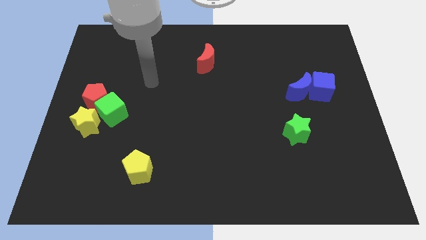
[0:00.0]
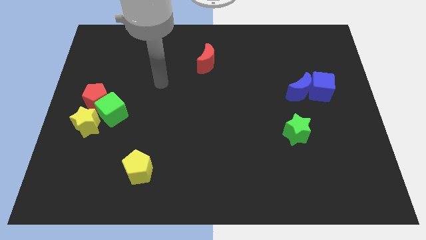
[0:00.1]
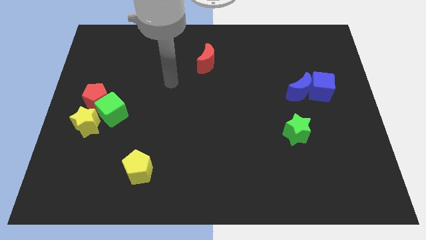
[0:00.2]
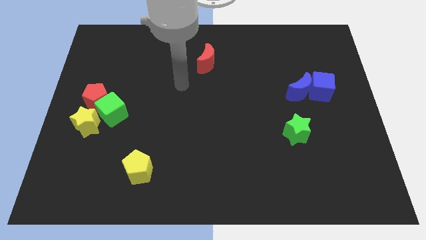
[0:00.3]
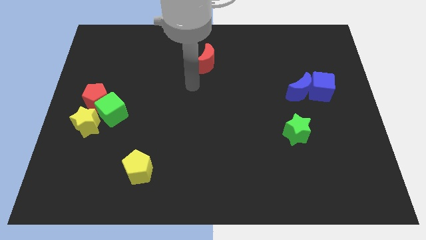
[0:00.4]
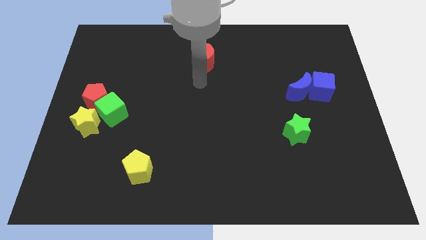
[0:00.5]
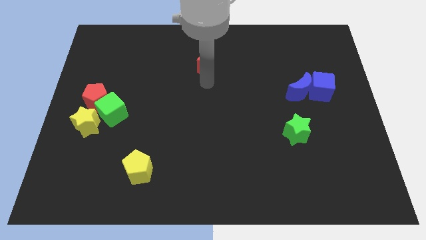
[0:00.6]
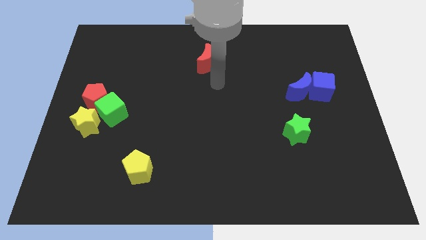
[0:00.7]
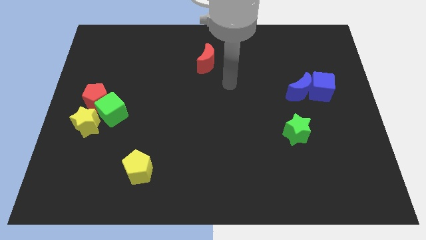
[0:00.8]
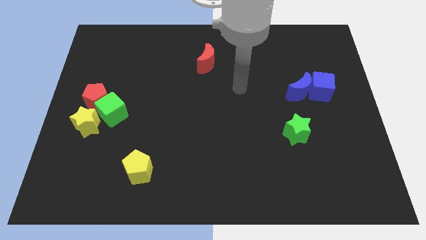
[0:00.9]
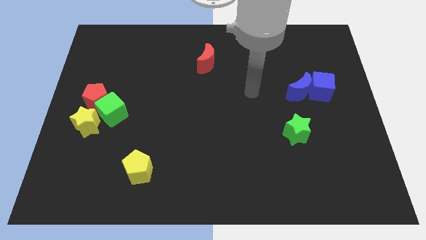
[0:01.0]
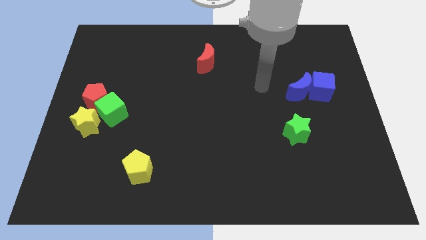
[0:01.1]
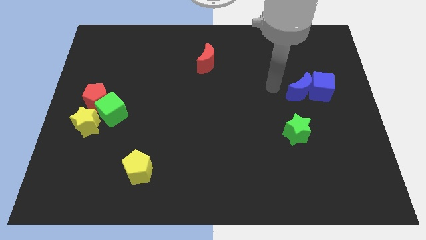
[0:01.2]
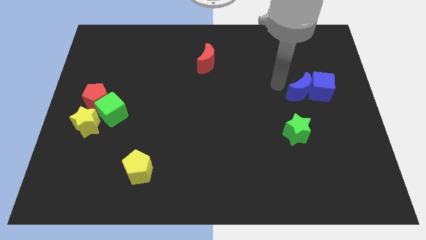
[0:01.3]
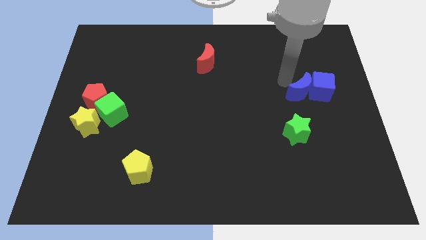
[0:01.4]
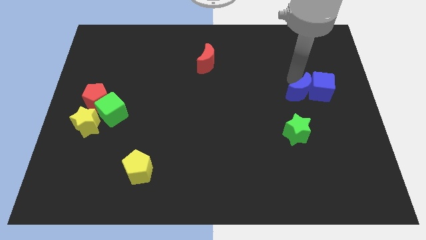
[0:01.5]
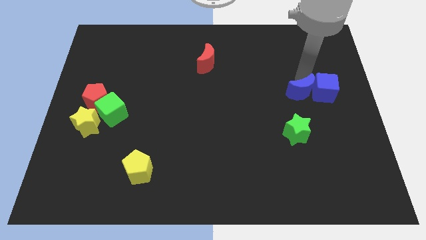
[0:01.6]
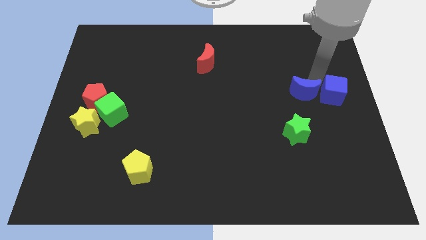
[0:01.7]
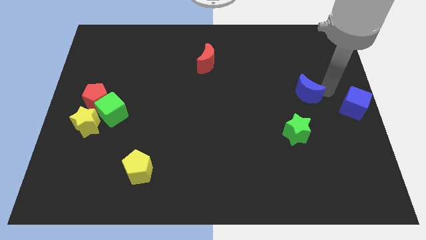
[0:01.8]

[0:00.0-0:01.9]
move the blue moon away from the blue cube

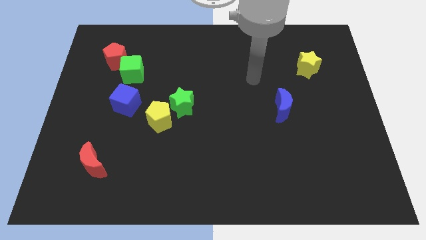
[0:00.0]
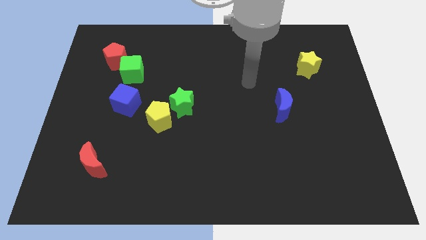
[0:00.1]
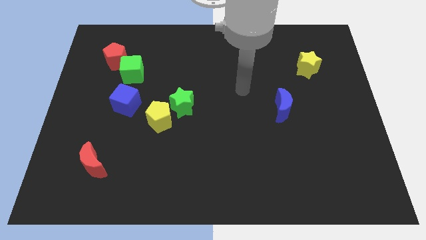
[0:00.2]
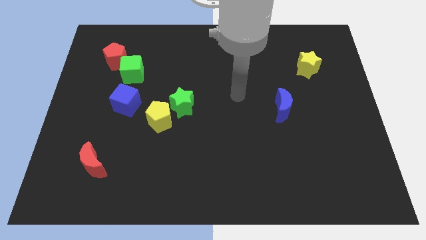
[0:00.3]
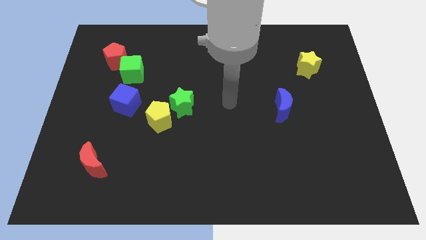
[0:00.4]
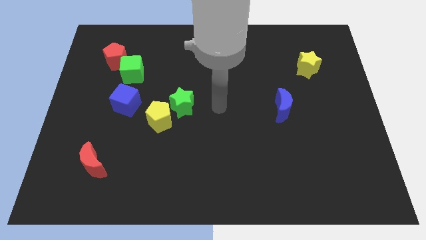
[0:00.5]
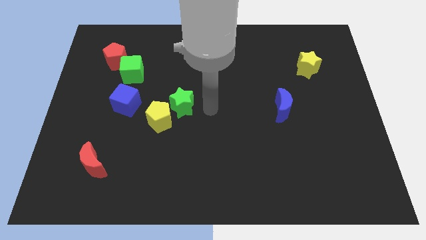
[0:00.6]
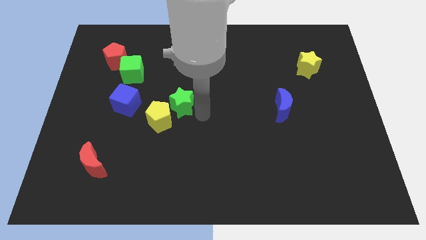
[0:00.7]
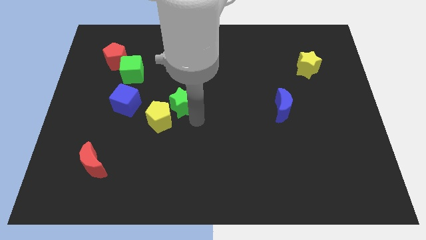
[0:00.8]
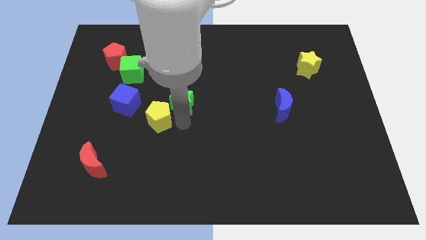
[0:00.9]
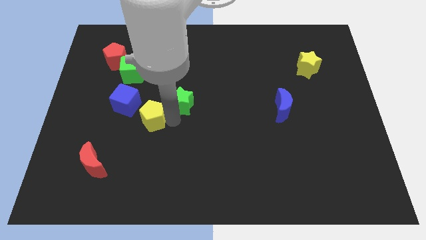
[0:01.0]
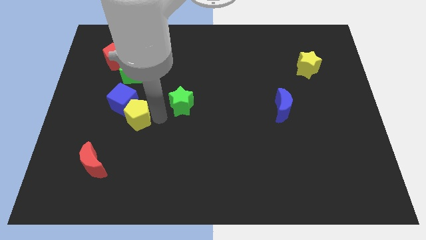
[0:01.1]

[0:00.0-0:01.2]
move the green star away from the yellow pentagon

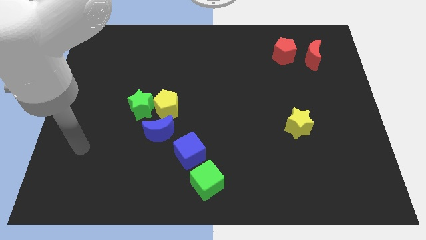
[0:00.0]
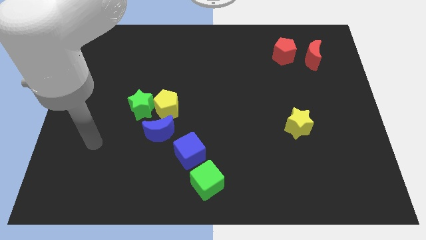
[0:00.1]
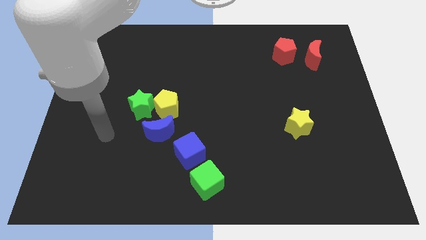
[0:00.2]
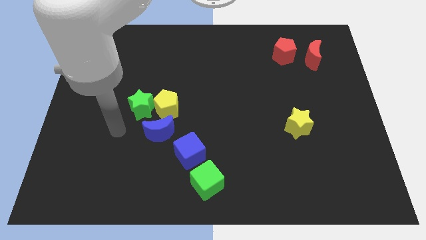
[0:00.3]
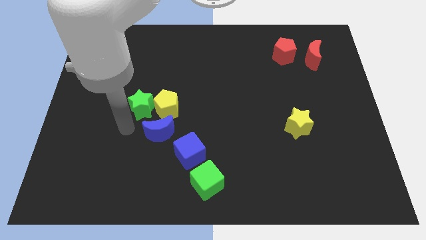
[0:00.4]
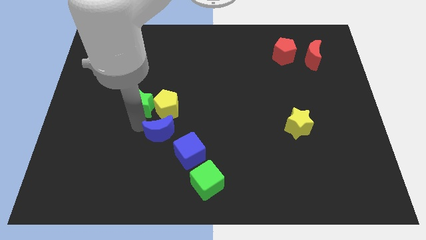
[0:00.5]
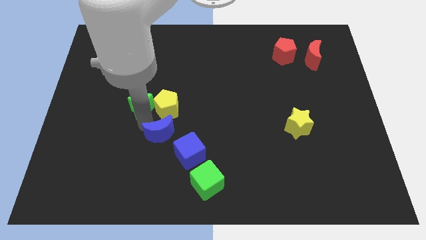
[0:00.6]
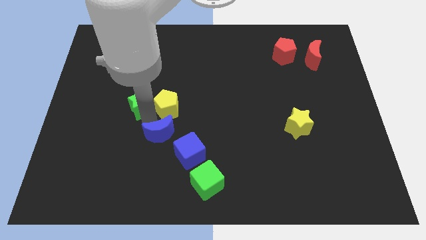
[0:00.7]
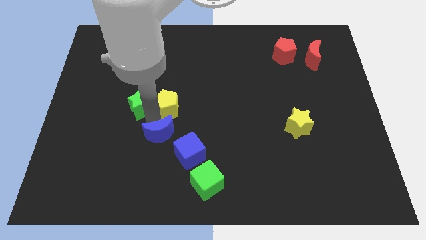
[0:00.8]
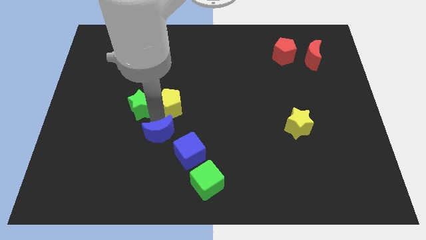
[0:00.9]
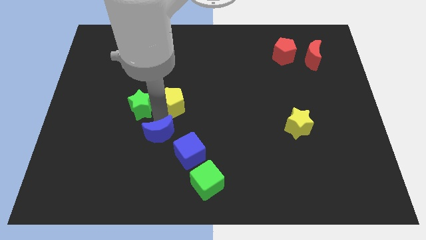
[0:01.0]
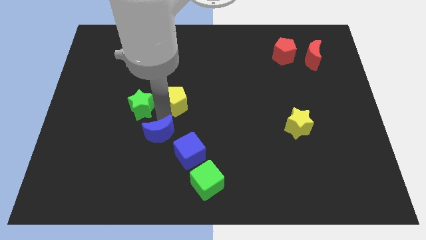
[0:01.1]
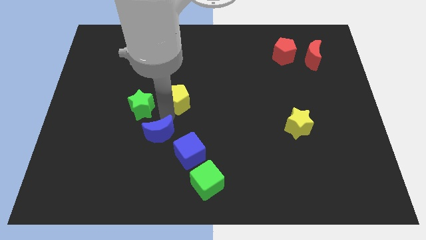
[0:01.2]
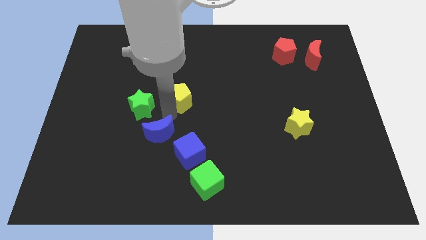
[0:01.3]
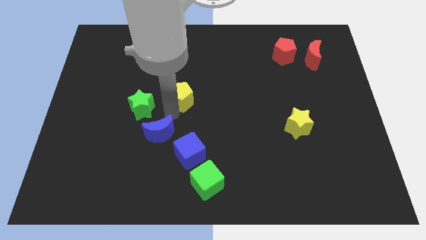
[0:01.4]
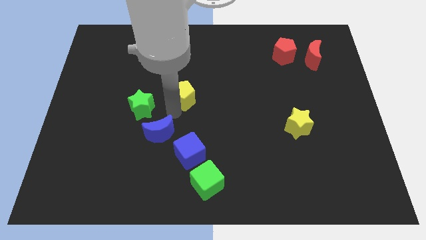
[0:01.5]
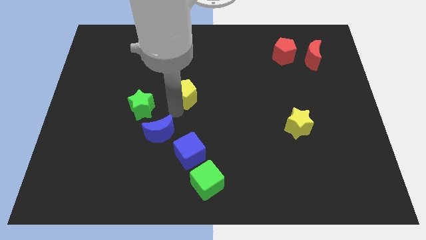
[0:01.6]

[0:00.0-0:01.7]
pull the yellow pentagon apart from the green star and blue moon

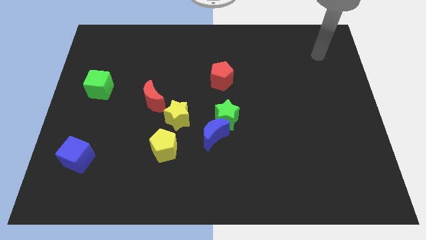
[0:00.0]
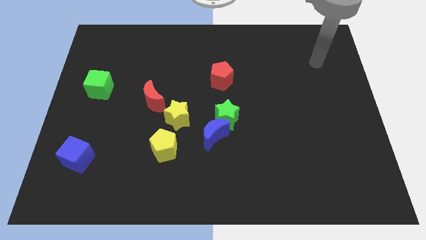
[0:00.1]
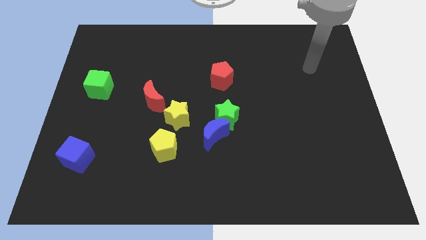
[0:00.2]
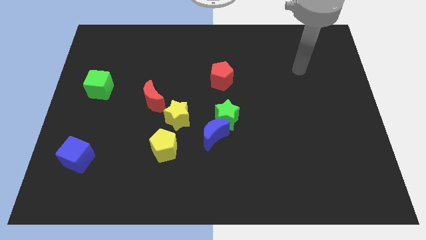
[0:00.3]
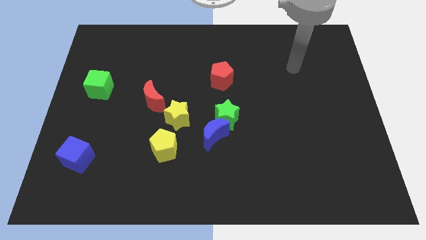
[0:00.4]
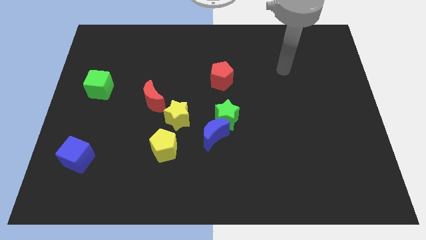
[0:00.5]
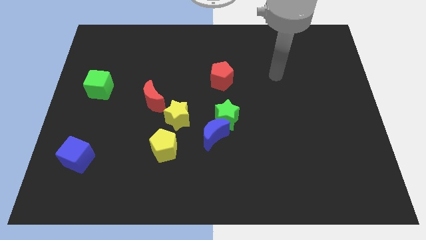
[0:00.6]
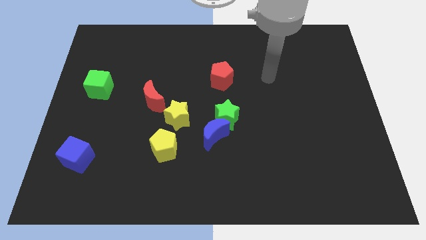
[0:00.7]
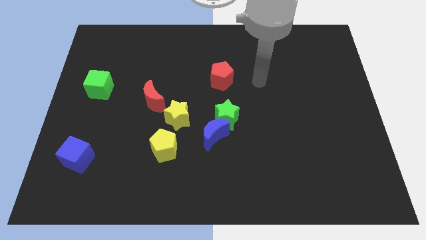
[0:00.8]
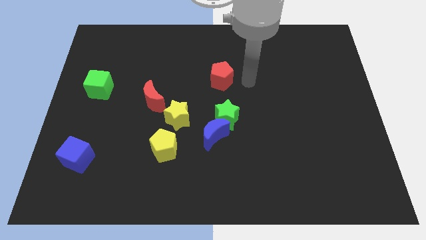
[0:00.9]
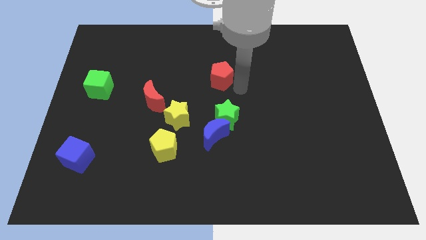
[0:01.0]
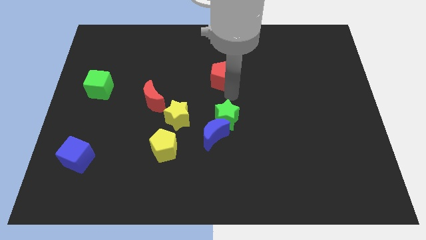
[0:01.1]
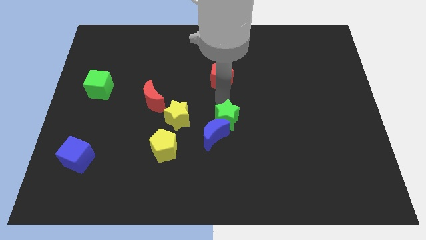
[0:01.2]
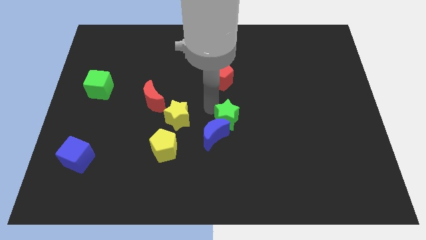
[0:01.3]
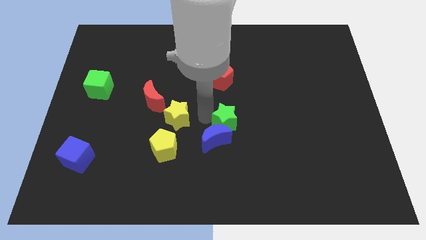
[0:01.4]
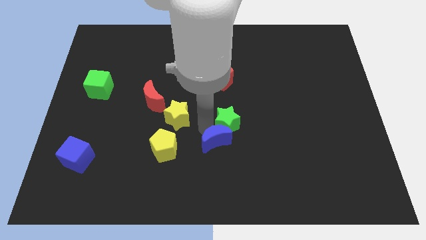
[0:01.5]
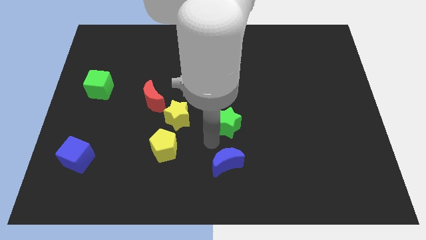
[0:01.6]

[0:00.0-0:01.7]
pull the green star apart from the blue moon

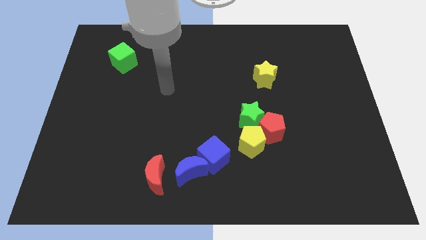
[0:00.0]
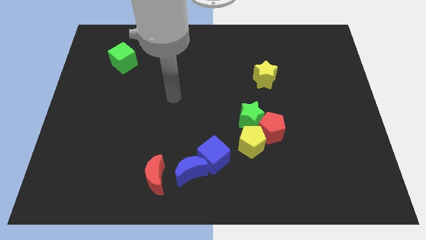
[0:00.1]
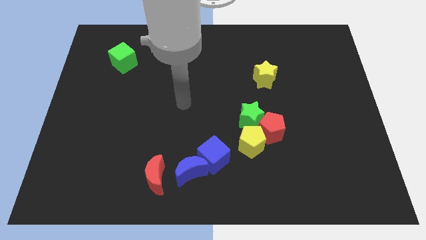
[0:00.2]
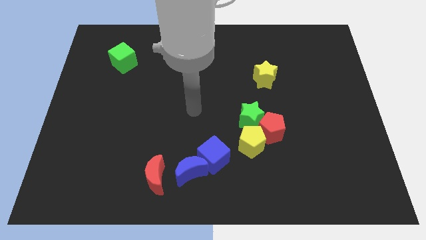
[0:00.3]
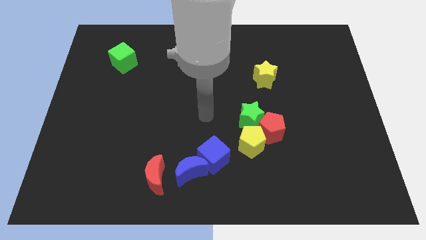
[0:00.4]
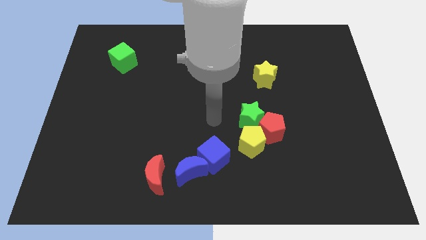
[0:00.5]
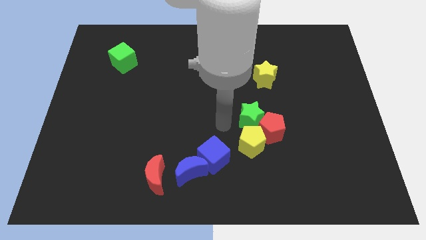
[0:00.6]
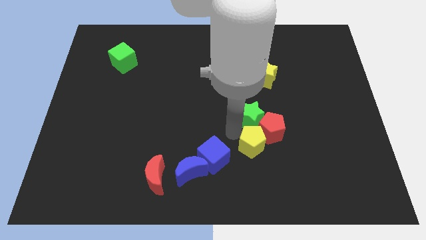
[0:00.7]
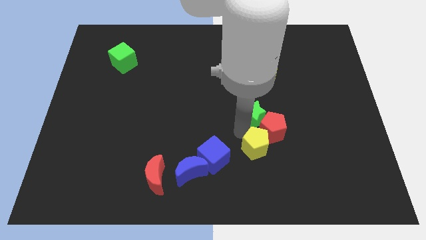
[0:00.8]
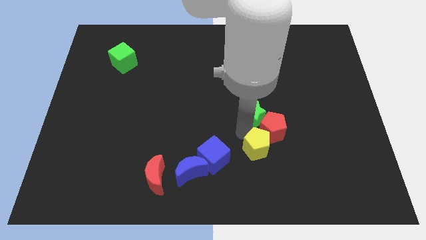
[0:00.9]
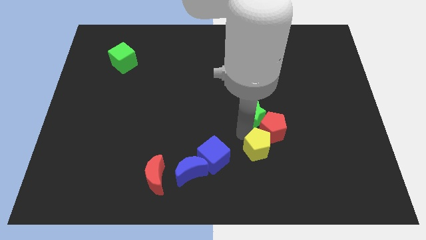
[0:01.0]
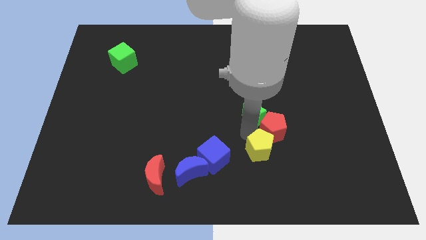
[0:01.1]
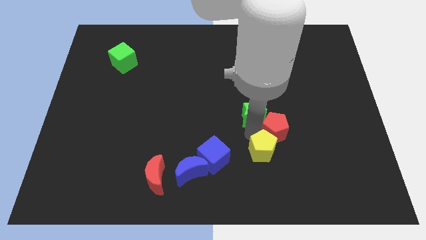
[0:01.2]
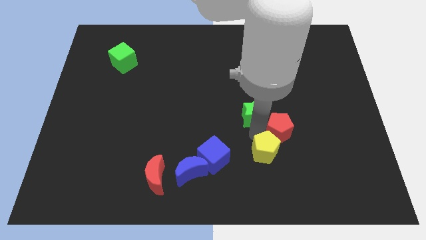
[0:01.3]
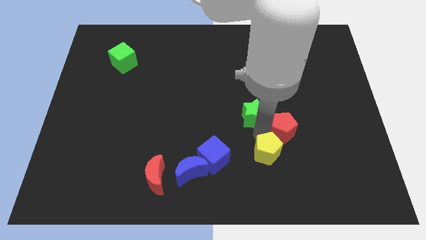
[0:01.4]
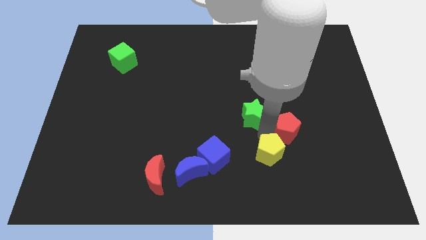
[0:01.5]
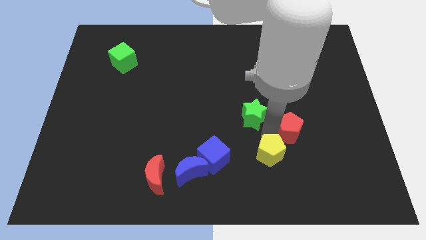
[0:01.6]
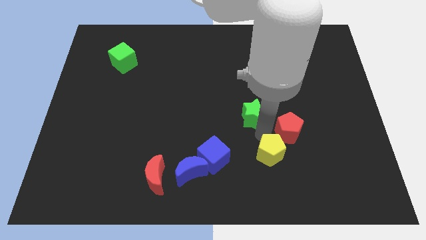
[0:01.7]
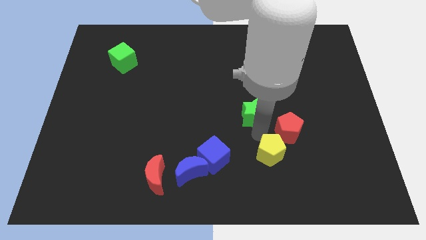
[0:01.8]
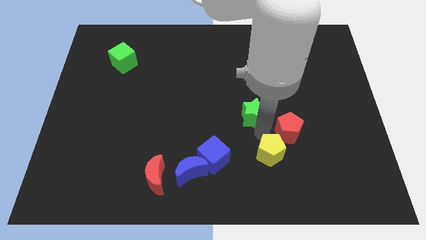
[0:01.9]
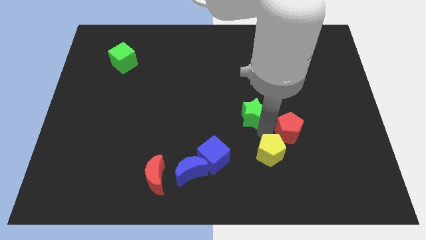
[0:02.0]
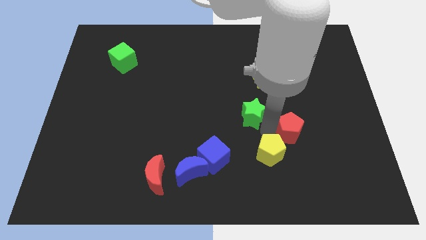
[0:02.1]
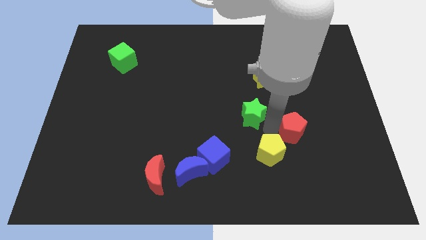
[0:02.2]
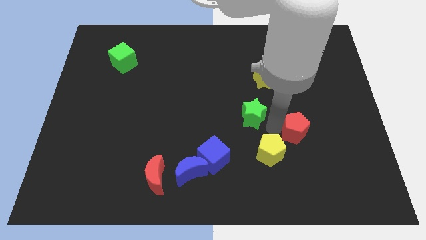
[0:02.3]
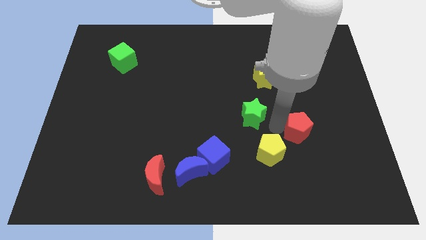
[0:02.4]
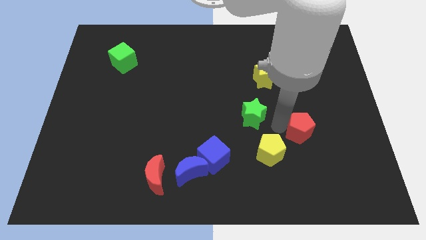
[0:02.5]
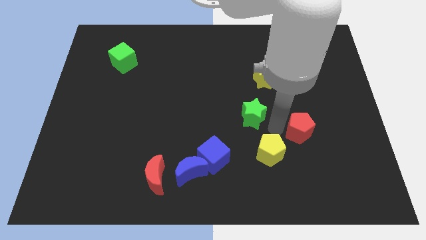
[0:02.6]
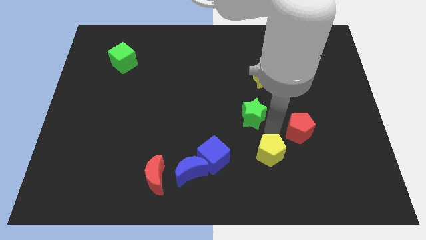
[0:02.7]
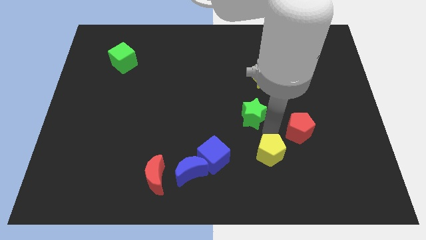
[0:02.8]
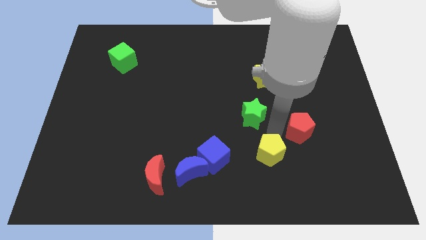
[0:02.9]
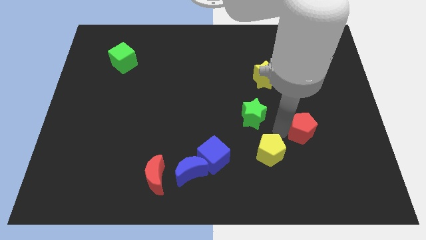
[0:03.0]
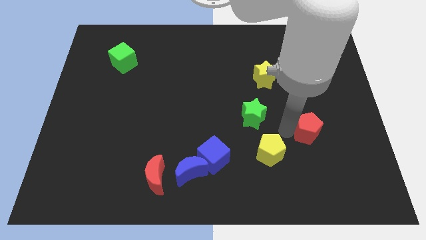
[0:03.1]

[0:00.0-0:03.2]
pull the red pentagon apart from the green star and yellow pentagon
